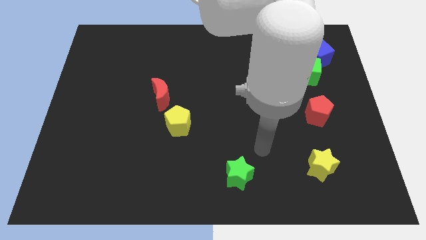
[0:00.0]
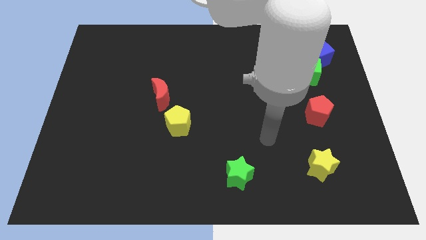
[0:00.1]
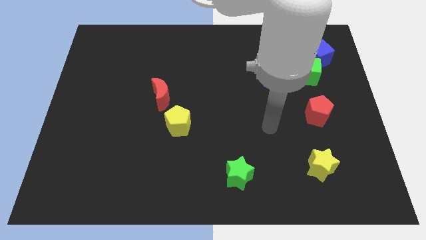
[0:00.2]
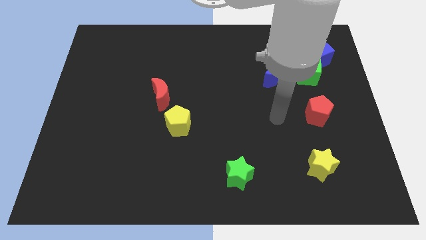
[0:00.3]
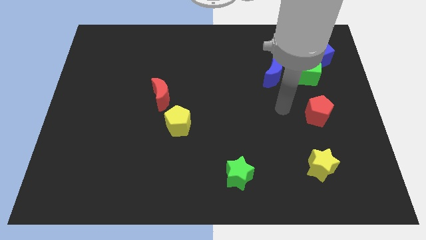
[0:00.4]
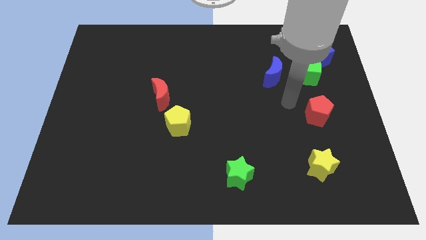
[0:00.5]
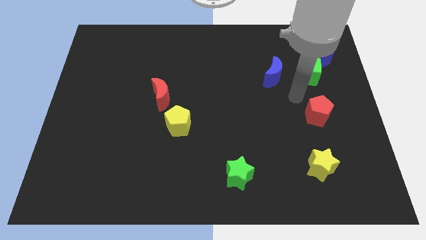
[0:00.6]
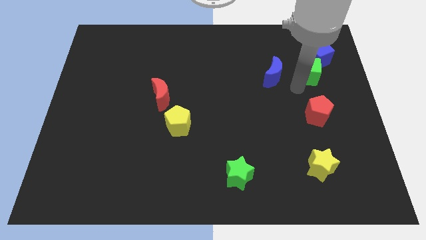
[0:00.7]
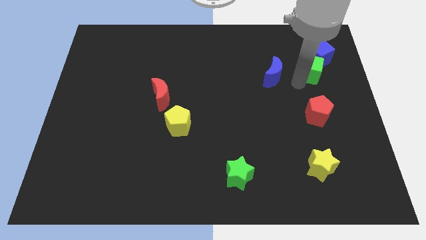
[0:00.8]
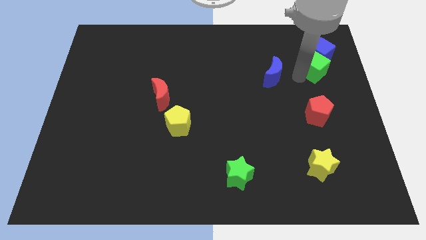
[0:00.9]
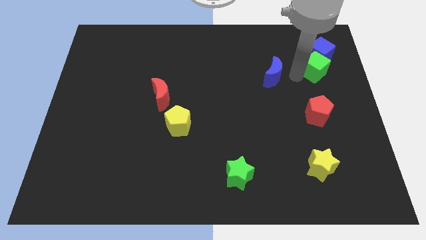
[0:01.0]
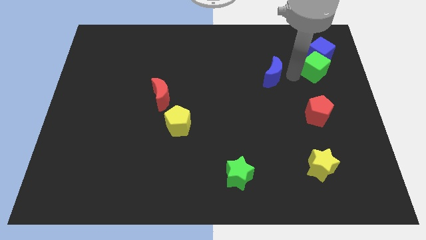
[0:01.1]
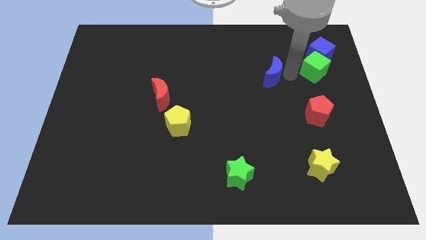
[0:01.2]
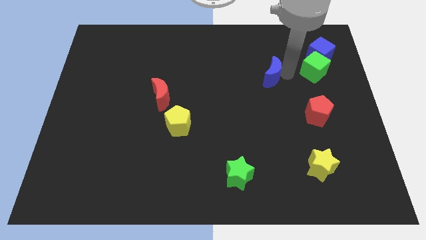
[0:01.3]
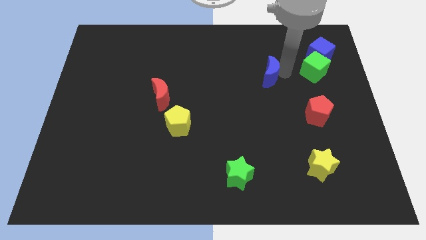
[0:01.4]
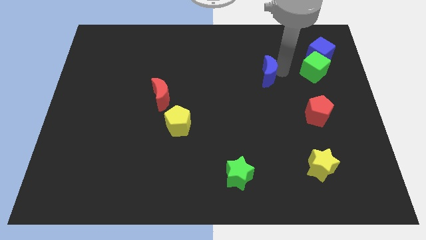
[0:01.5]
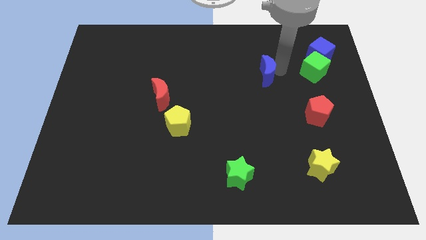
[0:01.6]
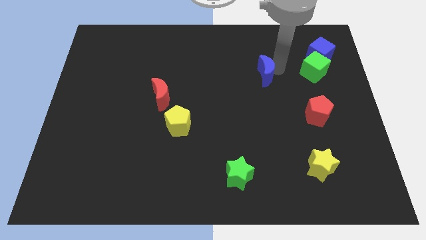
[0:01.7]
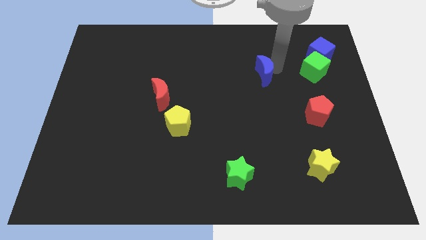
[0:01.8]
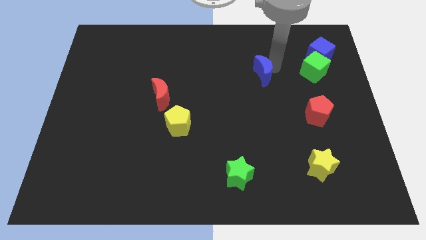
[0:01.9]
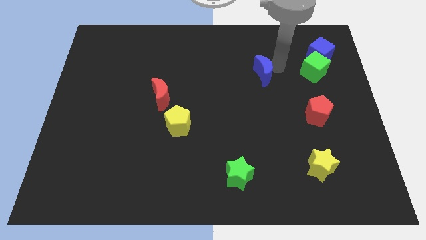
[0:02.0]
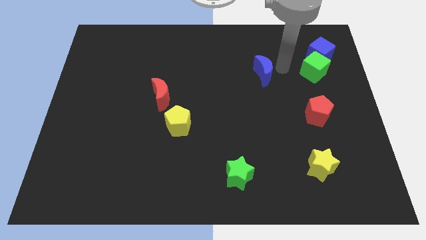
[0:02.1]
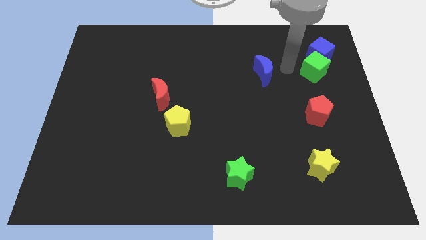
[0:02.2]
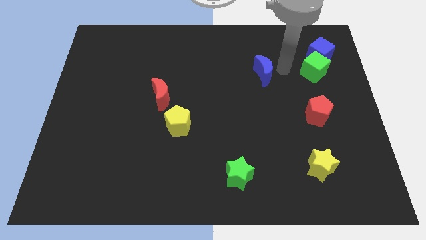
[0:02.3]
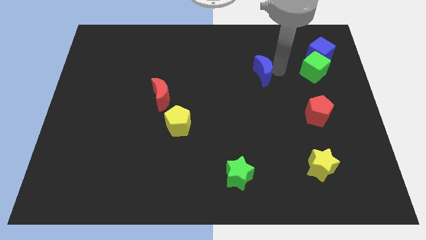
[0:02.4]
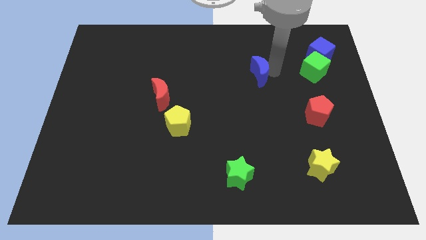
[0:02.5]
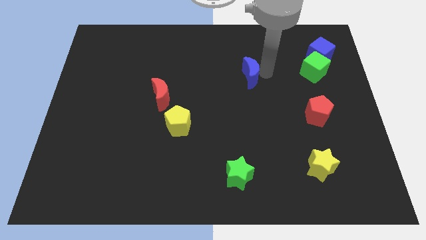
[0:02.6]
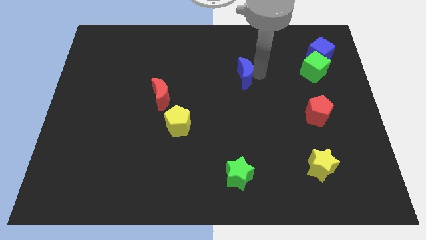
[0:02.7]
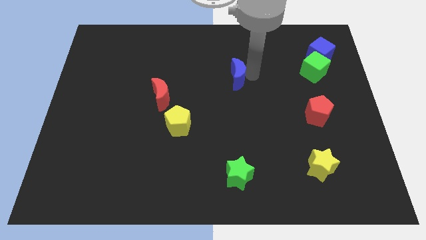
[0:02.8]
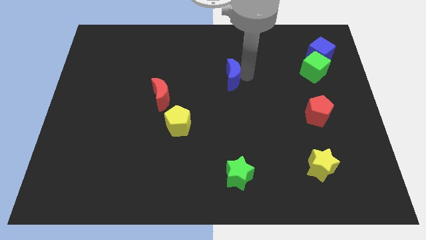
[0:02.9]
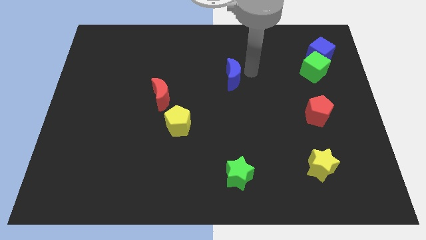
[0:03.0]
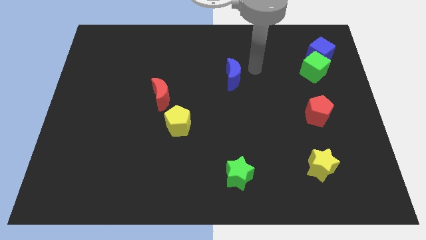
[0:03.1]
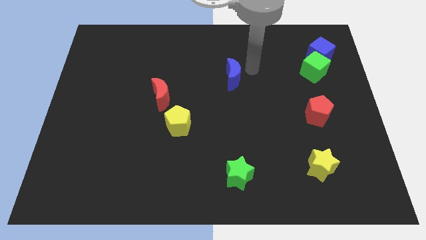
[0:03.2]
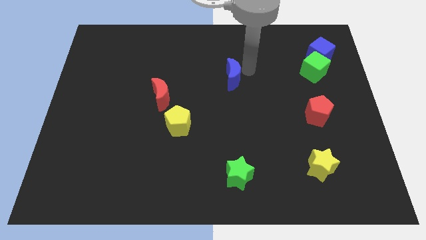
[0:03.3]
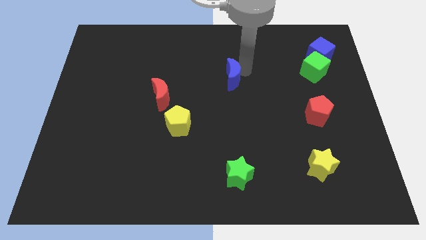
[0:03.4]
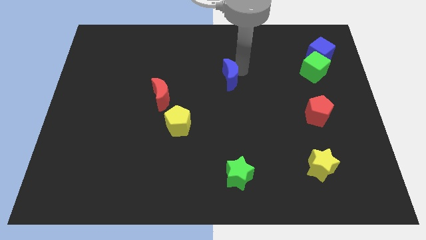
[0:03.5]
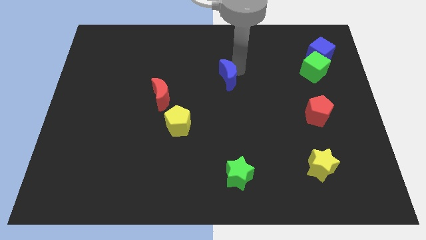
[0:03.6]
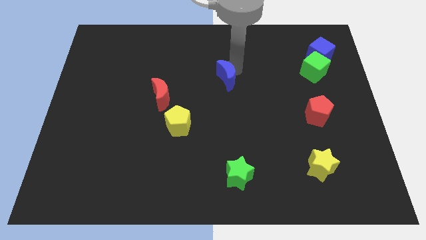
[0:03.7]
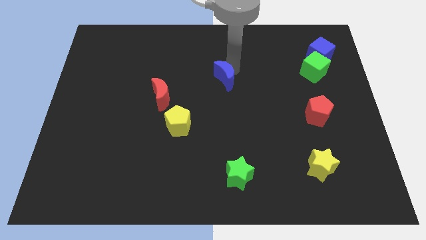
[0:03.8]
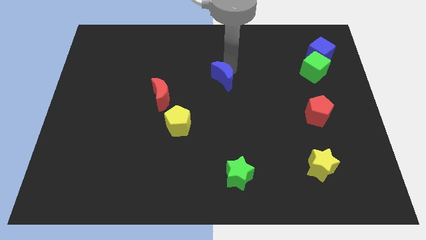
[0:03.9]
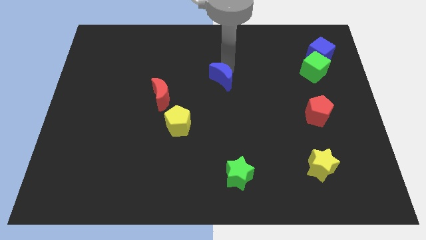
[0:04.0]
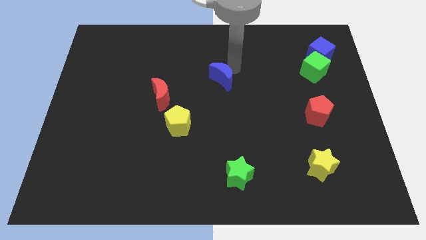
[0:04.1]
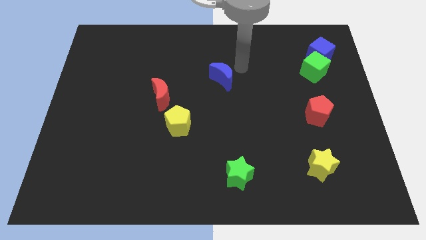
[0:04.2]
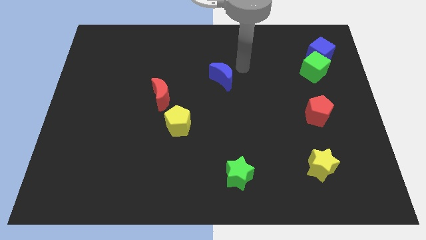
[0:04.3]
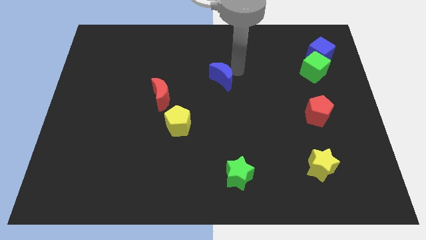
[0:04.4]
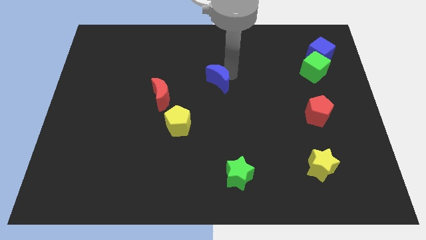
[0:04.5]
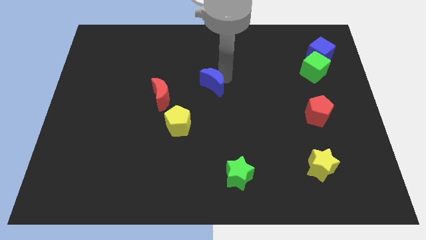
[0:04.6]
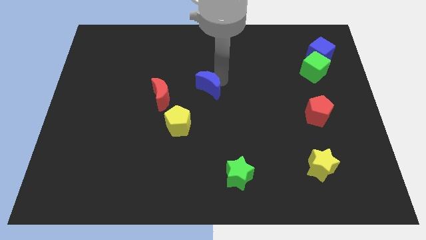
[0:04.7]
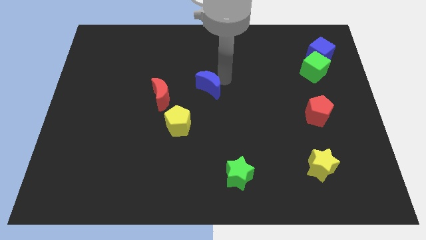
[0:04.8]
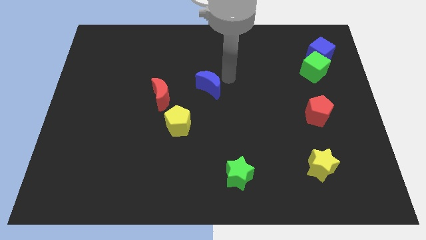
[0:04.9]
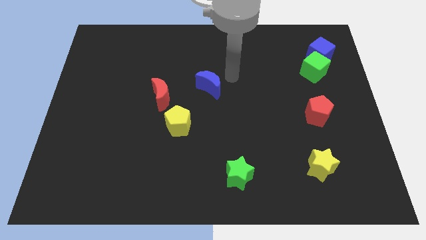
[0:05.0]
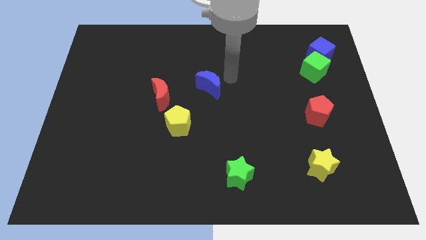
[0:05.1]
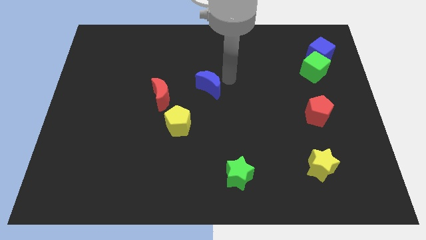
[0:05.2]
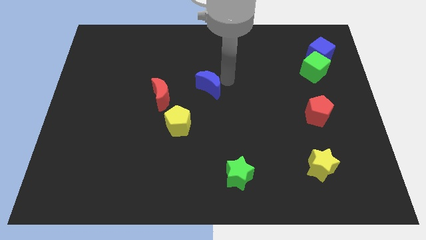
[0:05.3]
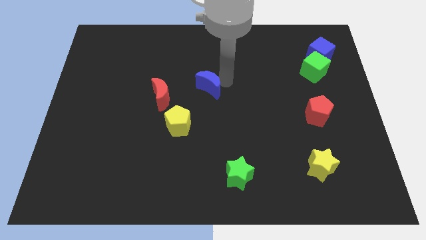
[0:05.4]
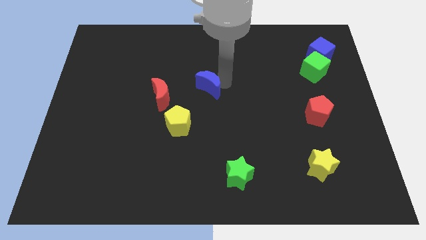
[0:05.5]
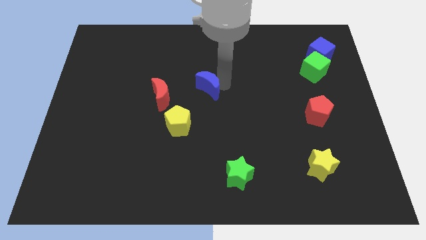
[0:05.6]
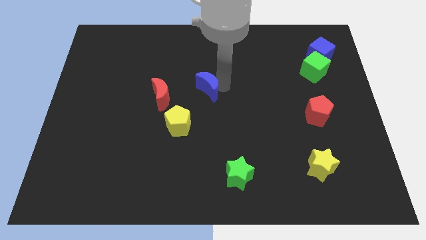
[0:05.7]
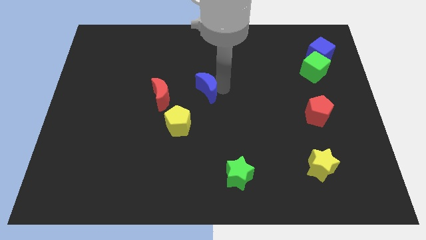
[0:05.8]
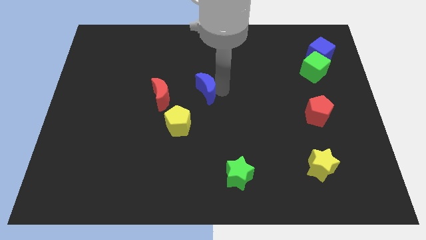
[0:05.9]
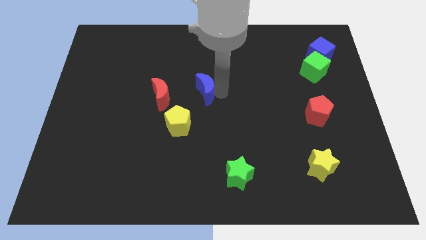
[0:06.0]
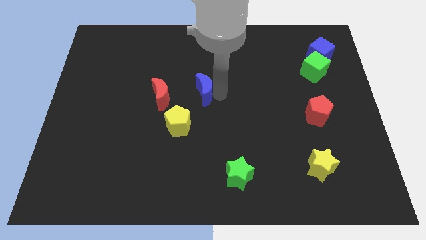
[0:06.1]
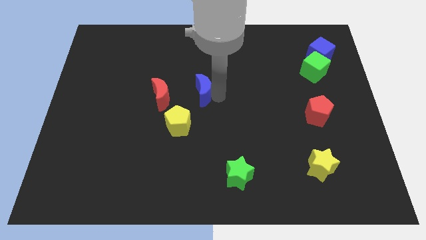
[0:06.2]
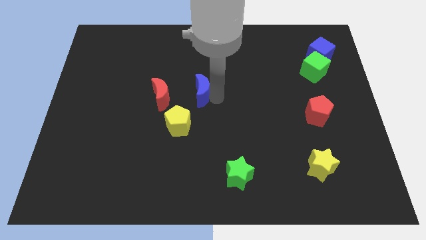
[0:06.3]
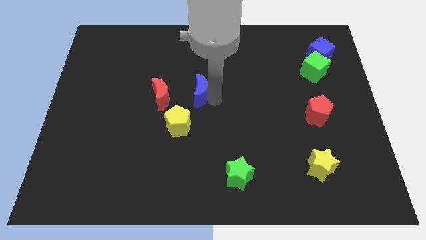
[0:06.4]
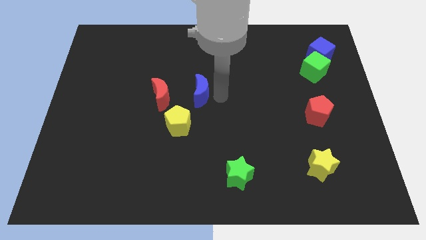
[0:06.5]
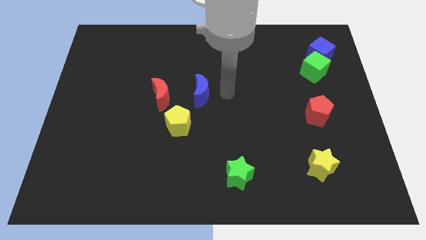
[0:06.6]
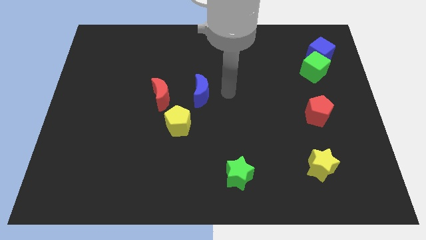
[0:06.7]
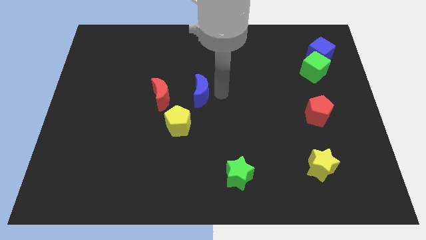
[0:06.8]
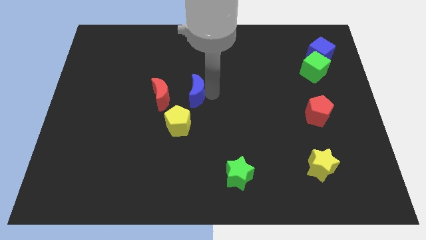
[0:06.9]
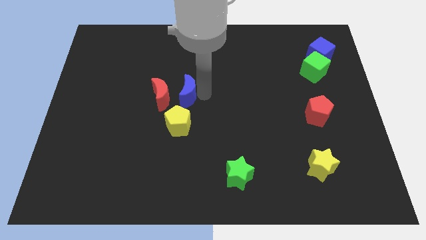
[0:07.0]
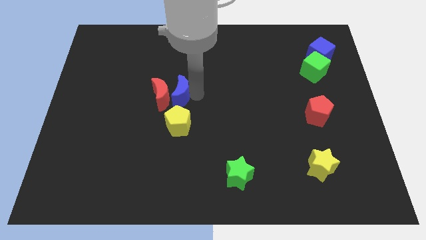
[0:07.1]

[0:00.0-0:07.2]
slide the blue moon close to the red moon
